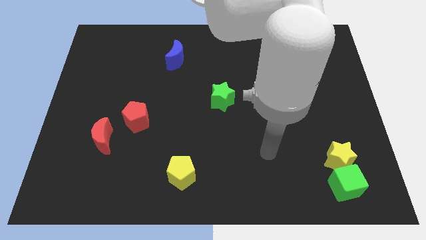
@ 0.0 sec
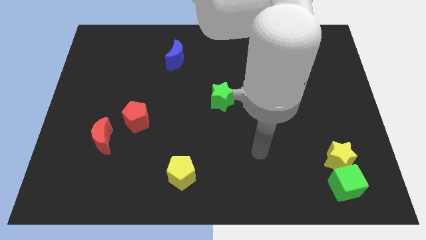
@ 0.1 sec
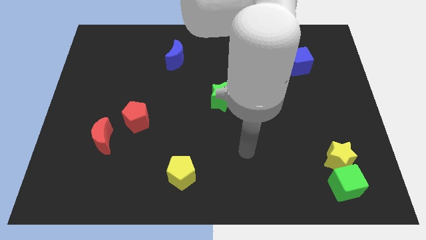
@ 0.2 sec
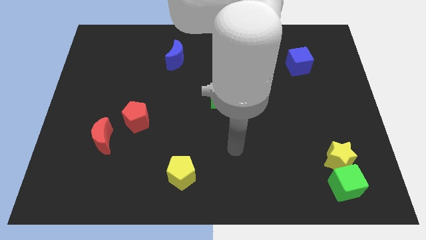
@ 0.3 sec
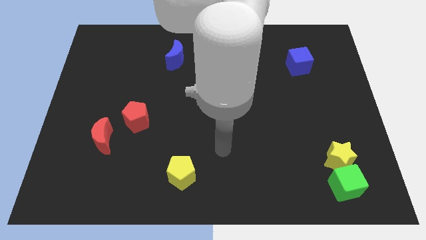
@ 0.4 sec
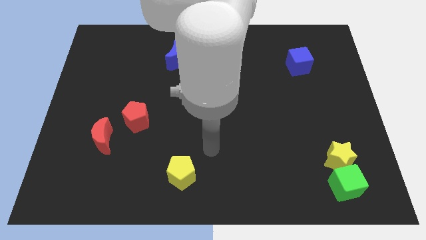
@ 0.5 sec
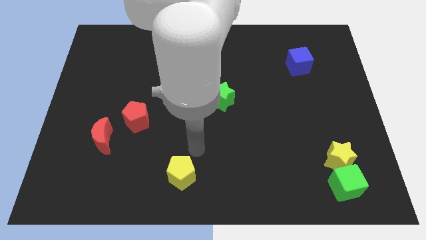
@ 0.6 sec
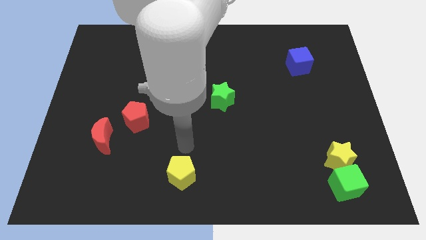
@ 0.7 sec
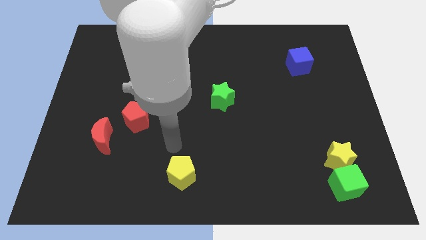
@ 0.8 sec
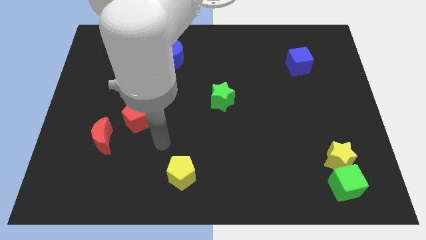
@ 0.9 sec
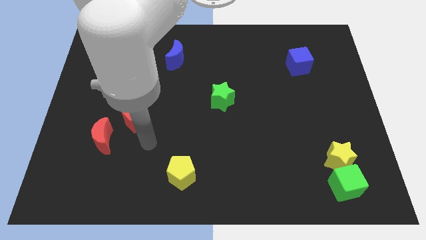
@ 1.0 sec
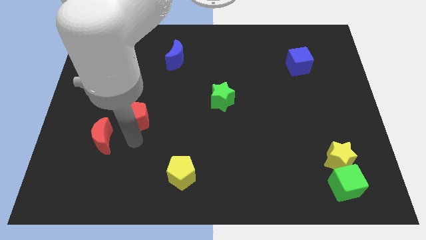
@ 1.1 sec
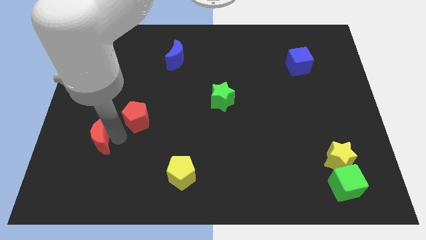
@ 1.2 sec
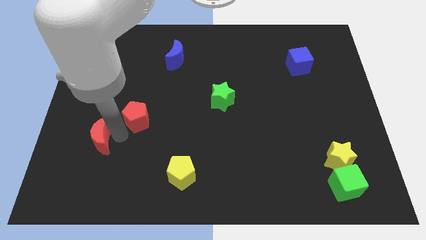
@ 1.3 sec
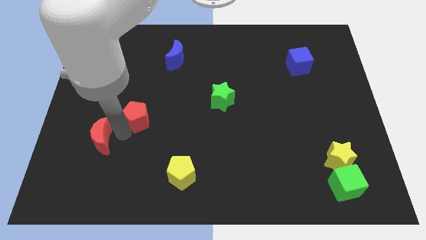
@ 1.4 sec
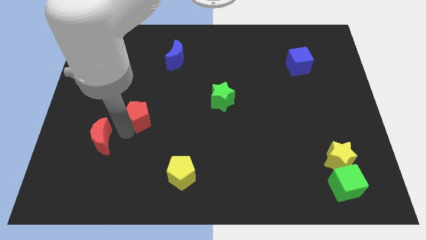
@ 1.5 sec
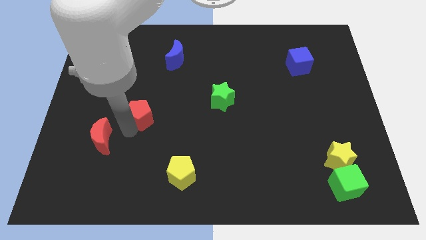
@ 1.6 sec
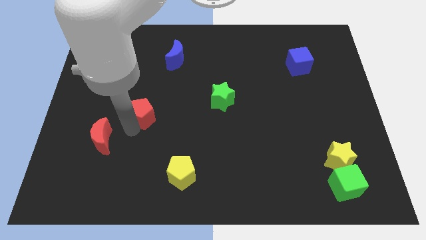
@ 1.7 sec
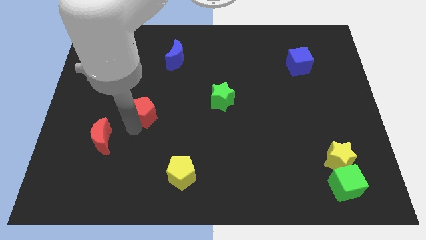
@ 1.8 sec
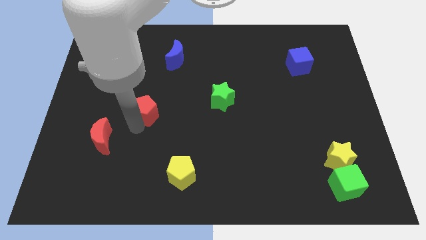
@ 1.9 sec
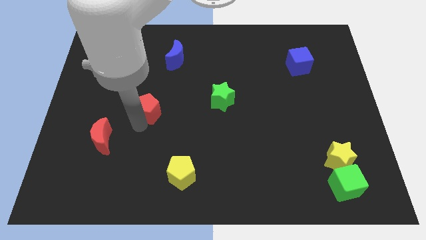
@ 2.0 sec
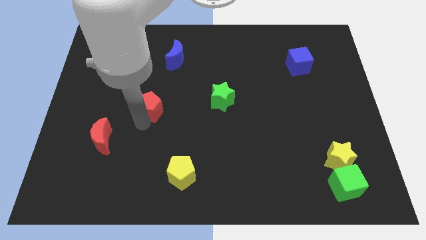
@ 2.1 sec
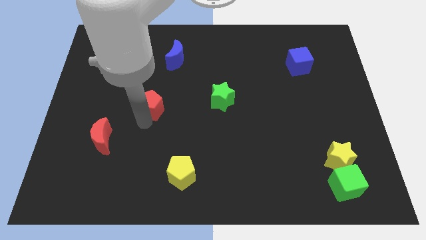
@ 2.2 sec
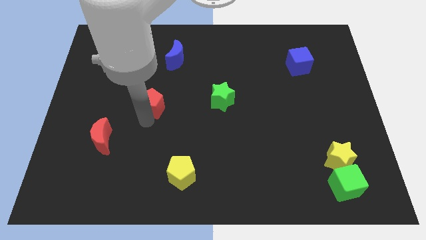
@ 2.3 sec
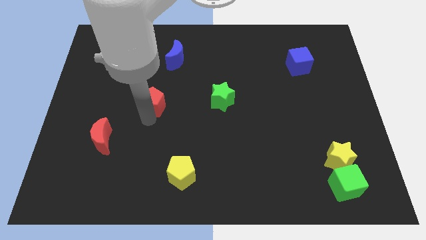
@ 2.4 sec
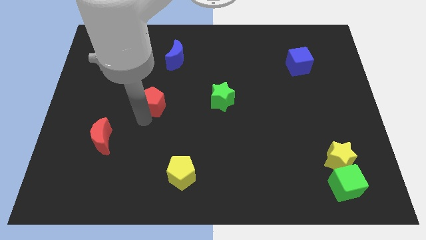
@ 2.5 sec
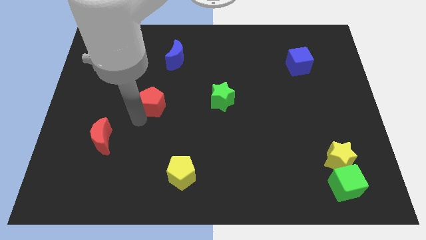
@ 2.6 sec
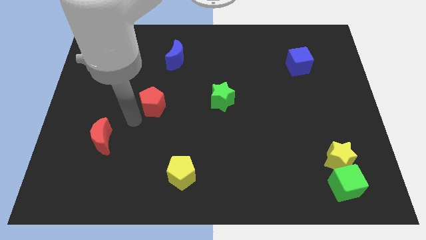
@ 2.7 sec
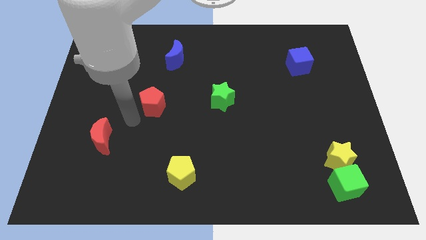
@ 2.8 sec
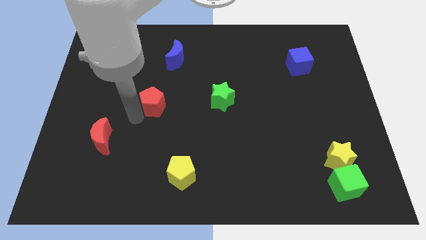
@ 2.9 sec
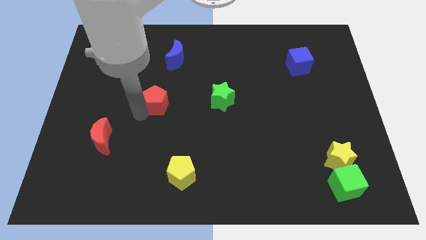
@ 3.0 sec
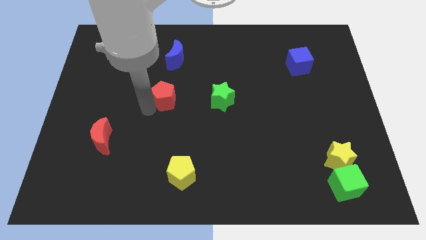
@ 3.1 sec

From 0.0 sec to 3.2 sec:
move the red pentagon a bit upwards and to the right diagonally

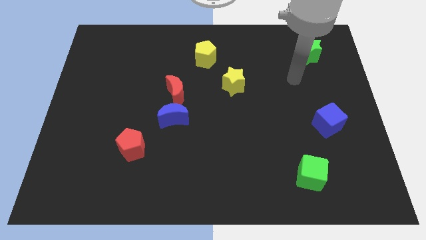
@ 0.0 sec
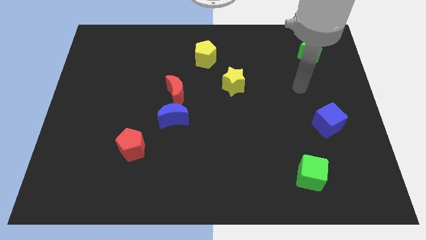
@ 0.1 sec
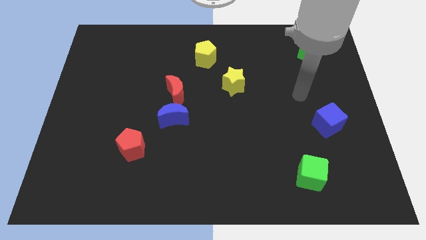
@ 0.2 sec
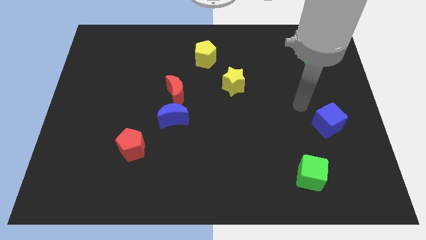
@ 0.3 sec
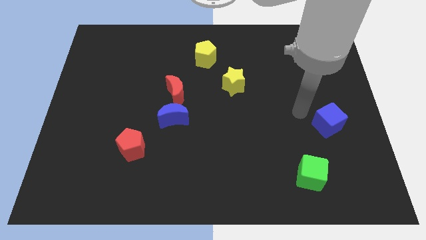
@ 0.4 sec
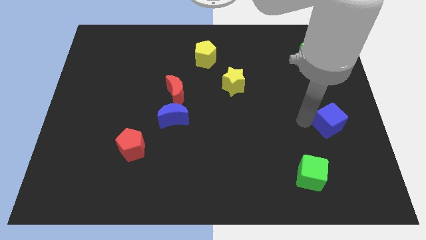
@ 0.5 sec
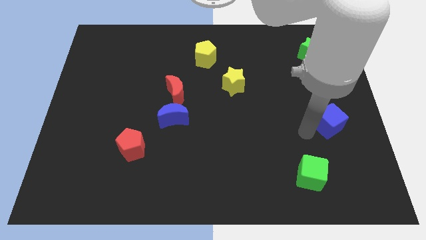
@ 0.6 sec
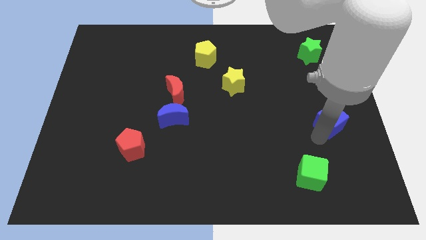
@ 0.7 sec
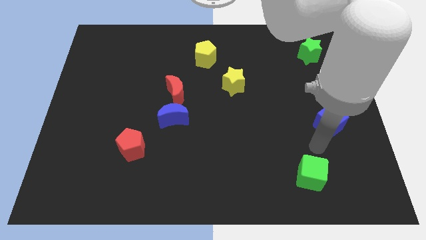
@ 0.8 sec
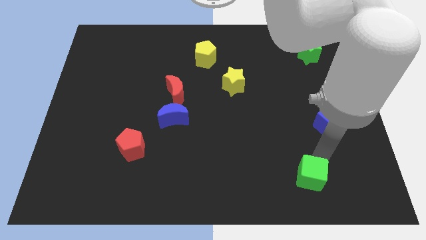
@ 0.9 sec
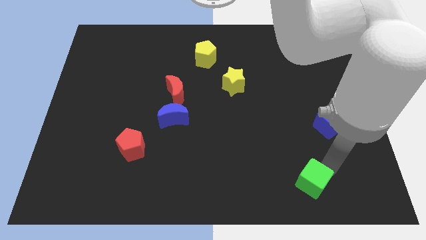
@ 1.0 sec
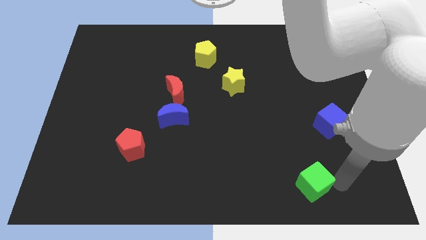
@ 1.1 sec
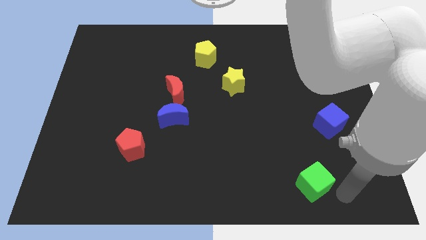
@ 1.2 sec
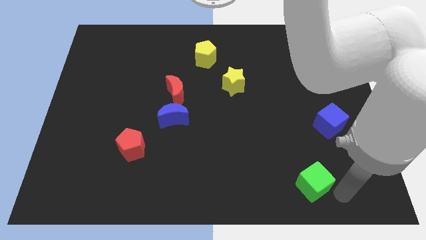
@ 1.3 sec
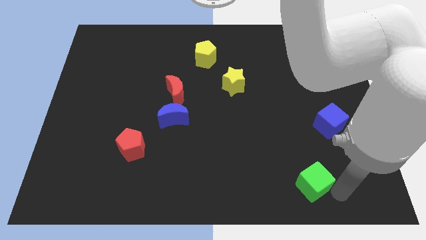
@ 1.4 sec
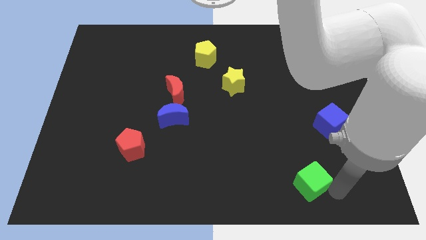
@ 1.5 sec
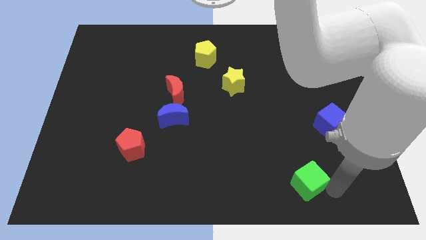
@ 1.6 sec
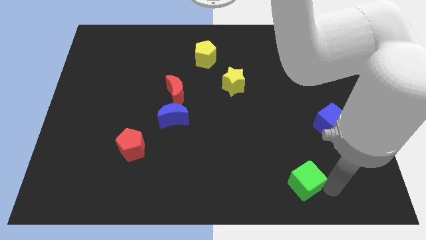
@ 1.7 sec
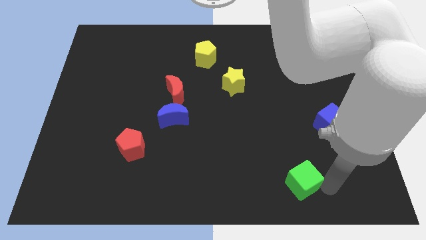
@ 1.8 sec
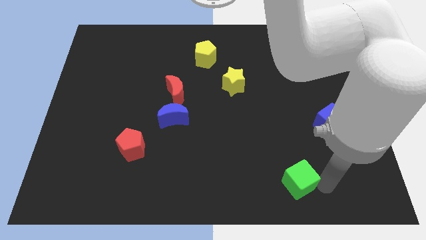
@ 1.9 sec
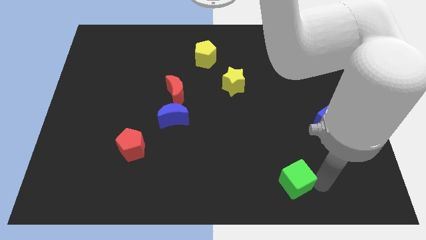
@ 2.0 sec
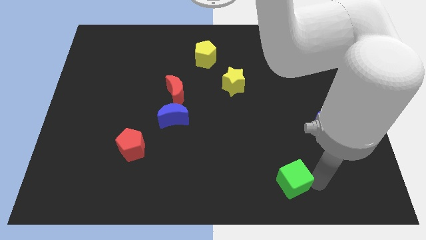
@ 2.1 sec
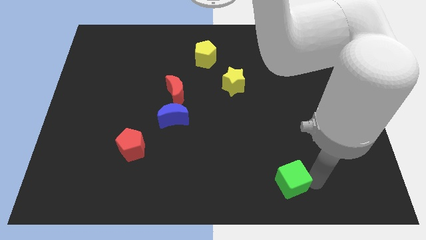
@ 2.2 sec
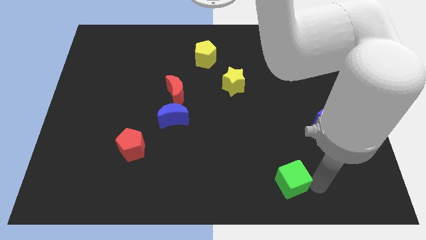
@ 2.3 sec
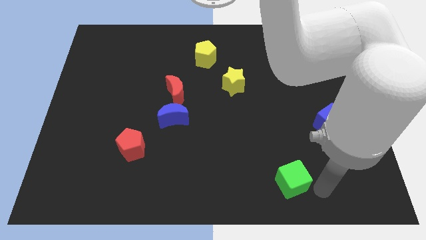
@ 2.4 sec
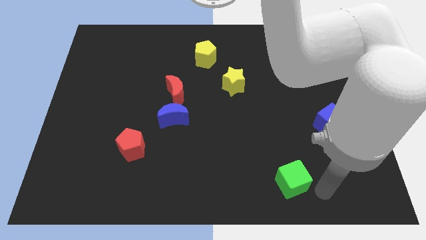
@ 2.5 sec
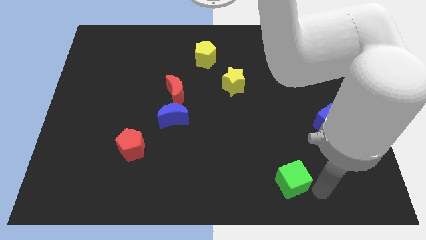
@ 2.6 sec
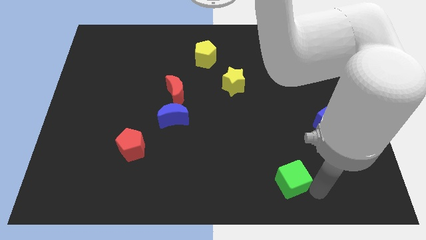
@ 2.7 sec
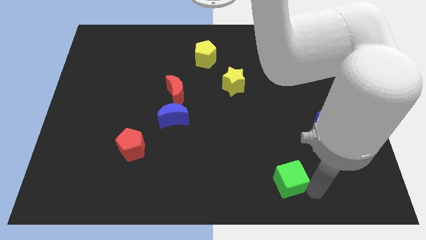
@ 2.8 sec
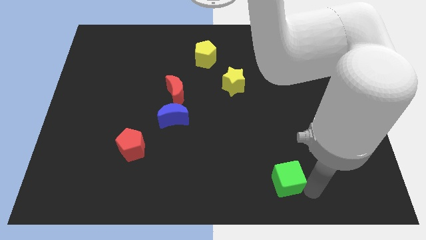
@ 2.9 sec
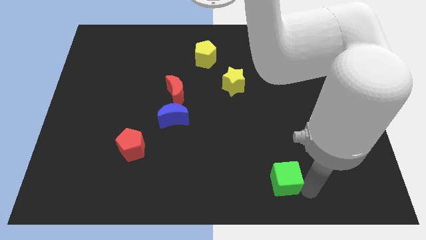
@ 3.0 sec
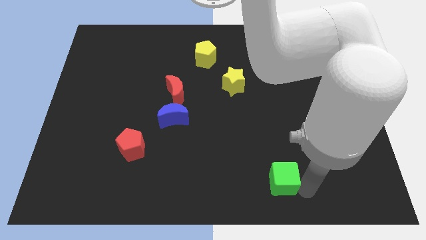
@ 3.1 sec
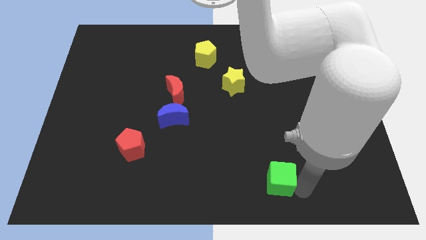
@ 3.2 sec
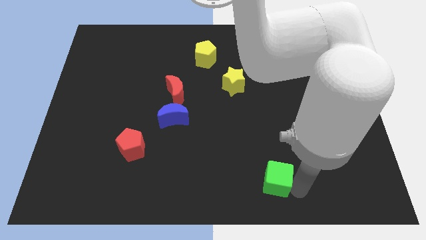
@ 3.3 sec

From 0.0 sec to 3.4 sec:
slightly move the green cube left

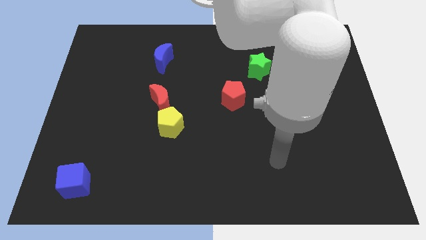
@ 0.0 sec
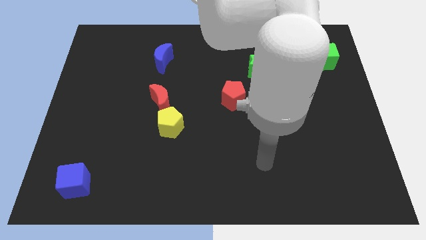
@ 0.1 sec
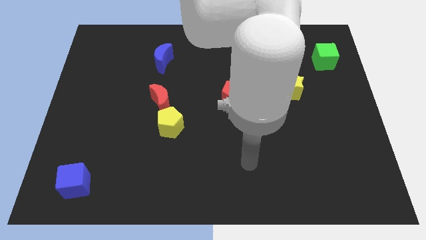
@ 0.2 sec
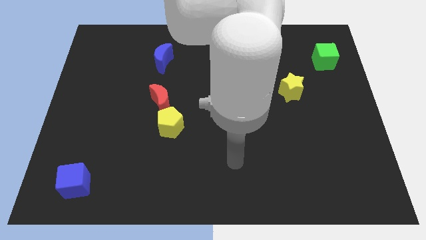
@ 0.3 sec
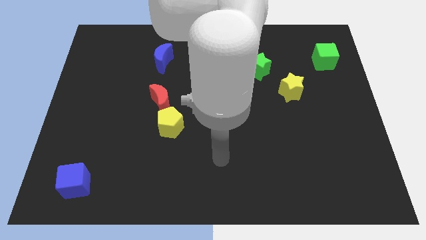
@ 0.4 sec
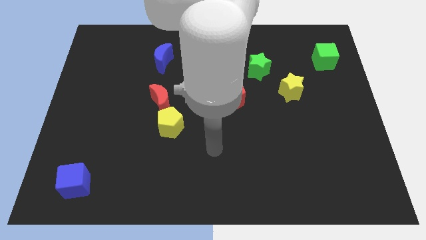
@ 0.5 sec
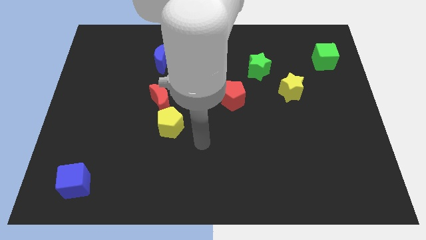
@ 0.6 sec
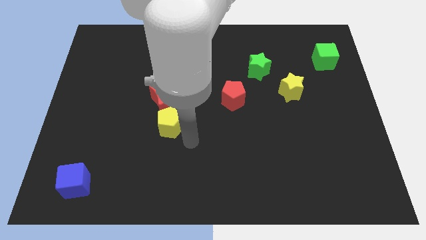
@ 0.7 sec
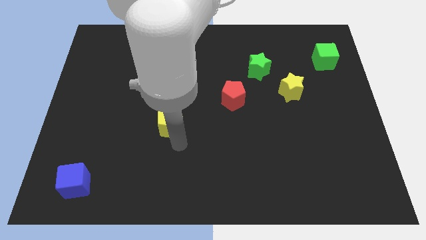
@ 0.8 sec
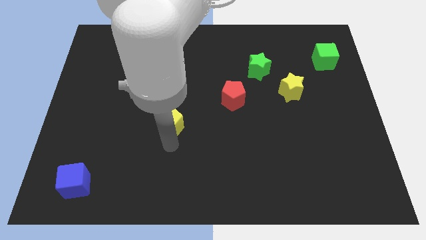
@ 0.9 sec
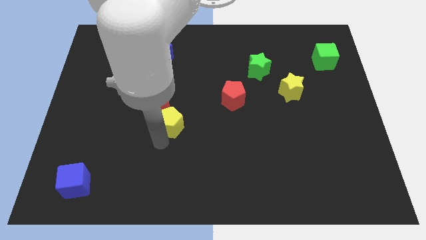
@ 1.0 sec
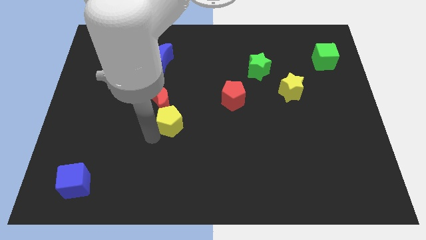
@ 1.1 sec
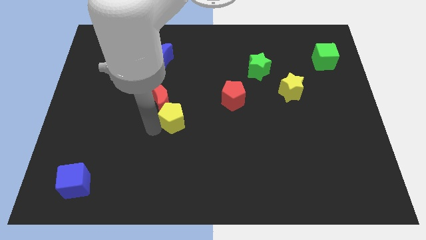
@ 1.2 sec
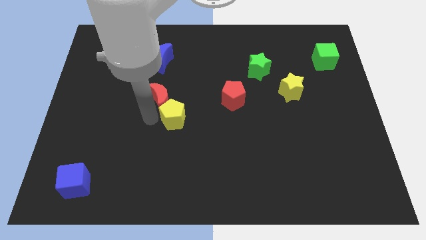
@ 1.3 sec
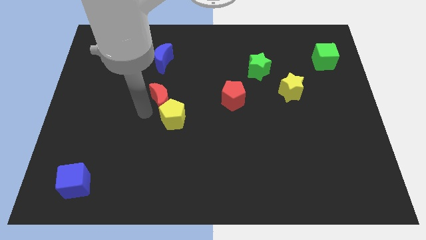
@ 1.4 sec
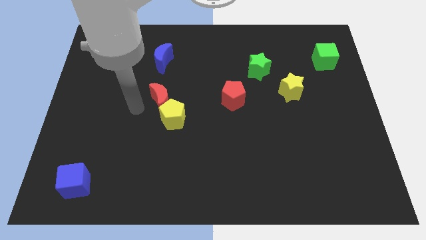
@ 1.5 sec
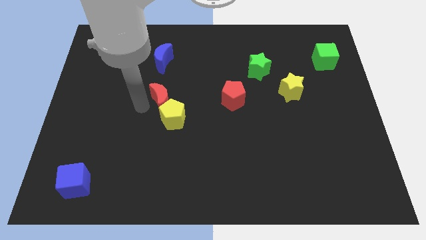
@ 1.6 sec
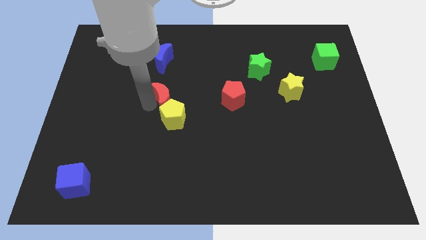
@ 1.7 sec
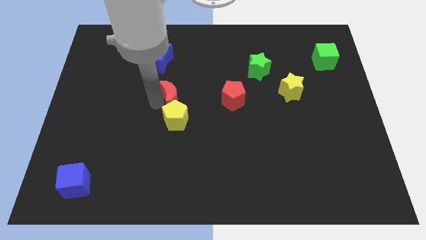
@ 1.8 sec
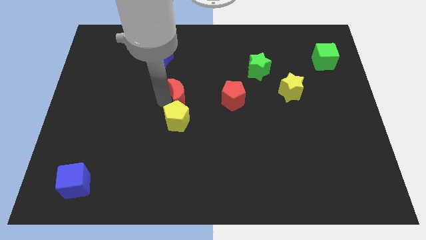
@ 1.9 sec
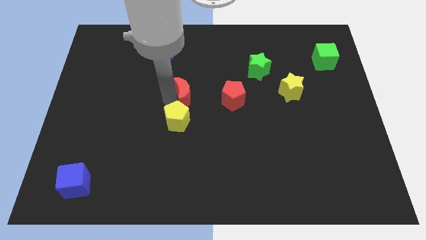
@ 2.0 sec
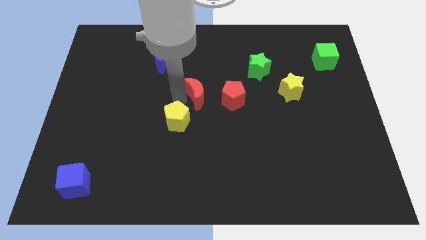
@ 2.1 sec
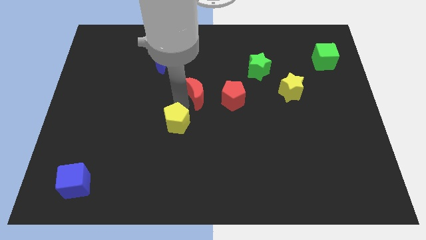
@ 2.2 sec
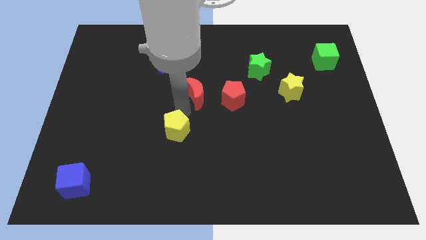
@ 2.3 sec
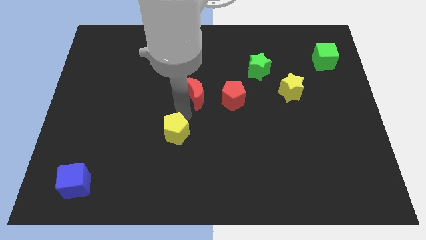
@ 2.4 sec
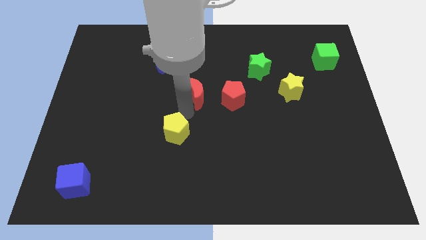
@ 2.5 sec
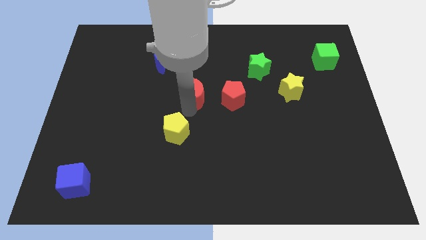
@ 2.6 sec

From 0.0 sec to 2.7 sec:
slightly push the red moon upwards and then to the right
